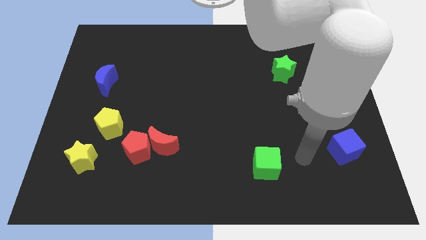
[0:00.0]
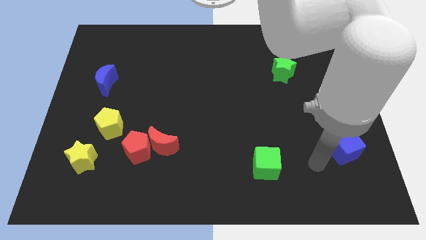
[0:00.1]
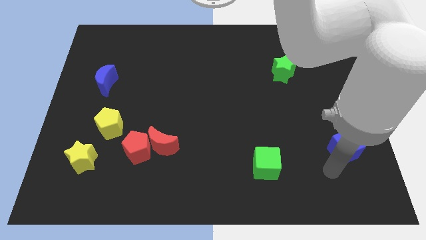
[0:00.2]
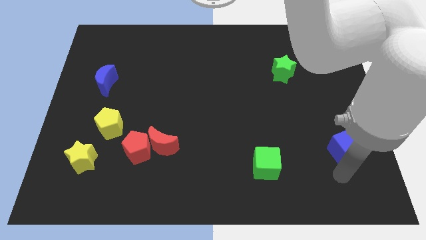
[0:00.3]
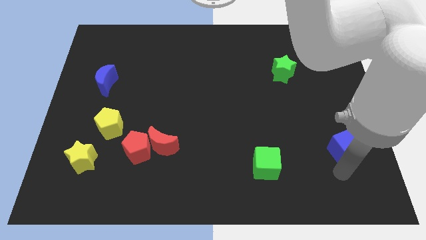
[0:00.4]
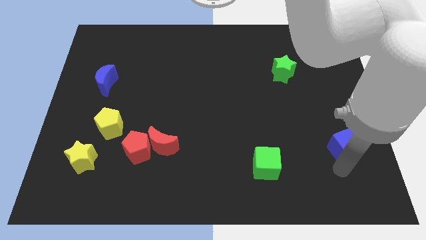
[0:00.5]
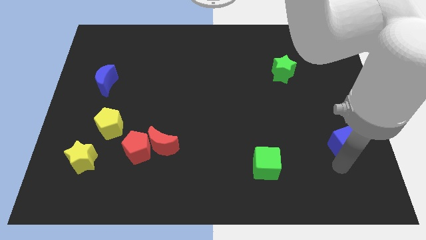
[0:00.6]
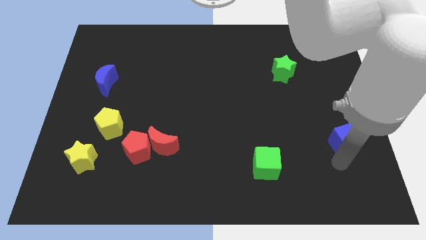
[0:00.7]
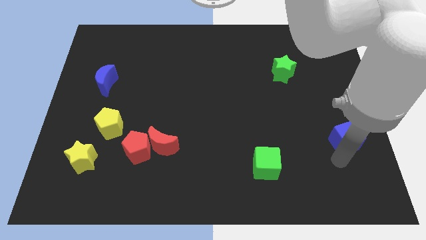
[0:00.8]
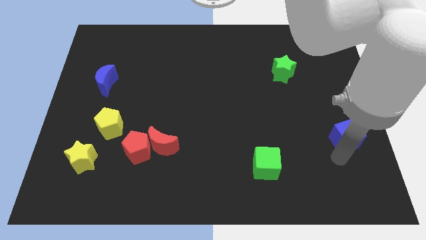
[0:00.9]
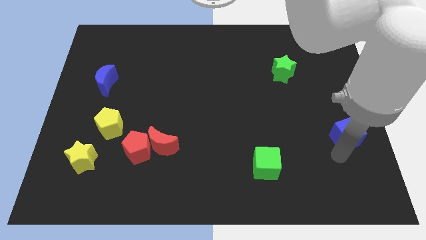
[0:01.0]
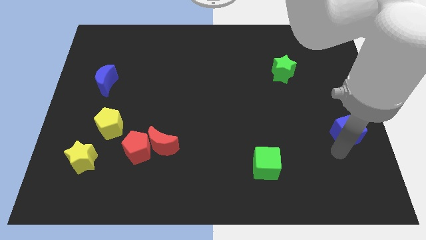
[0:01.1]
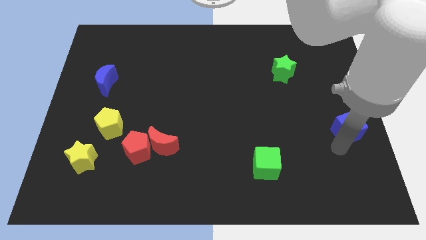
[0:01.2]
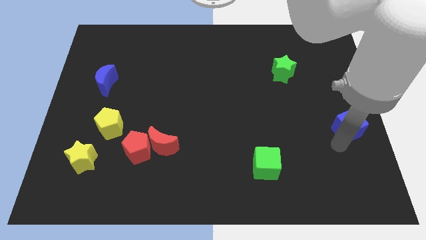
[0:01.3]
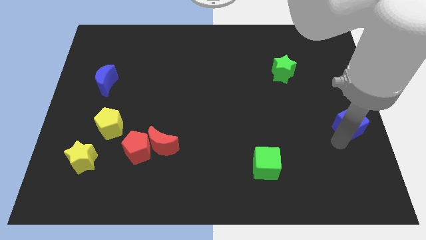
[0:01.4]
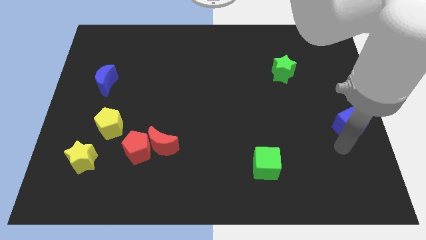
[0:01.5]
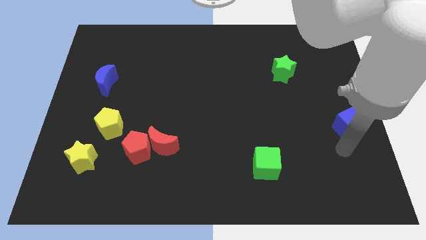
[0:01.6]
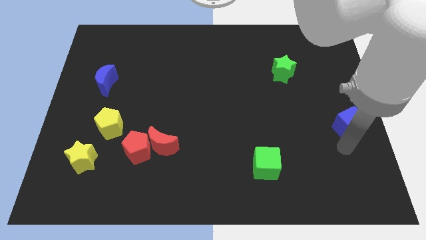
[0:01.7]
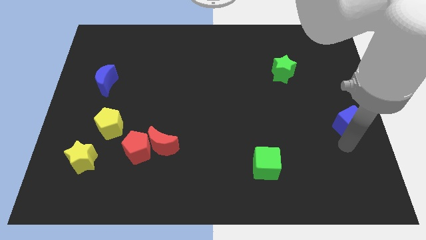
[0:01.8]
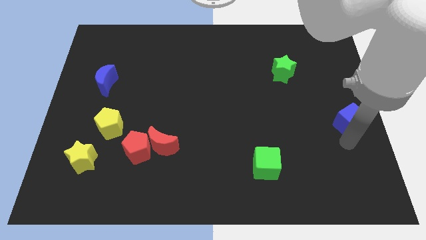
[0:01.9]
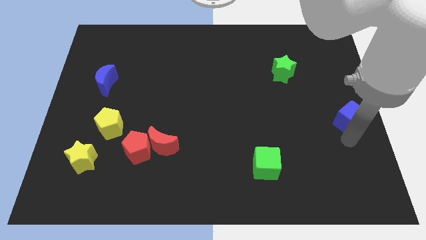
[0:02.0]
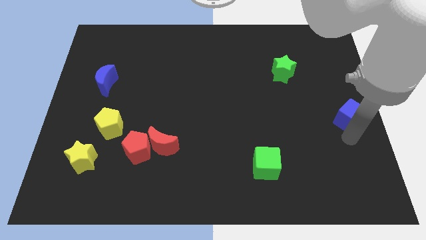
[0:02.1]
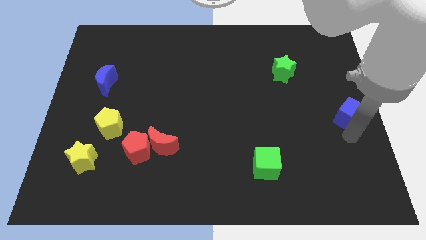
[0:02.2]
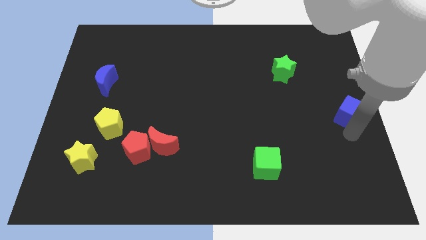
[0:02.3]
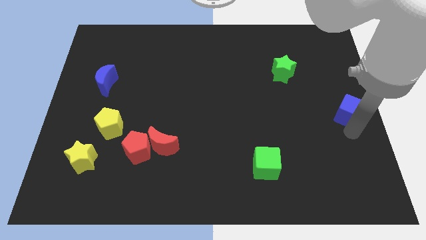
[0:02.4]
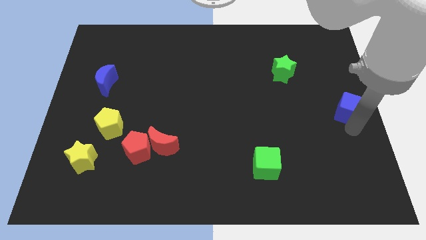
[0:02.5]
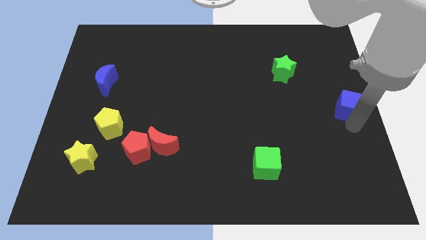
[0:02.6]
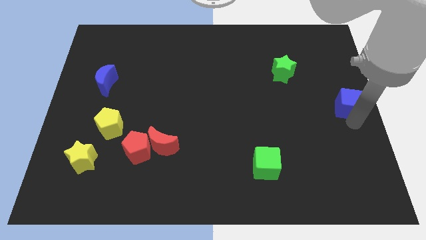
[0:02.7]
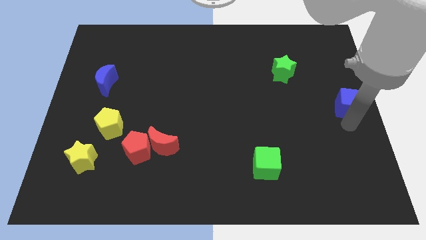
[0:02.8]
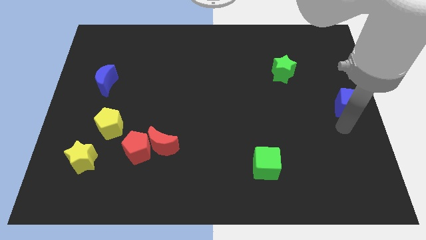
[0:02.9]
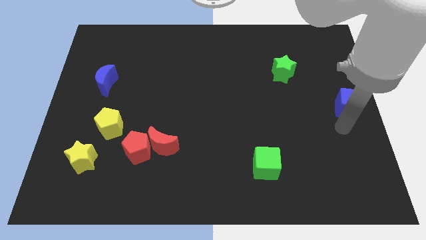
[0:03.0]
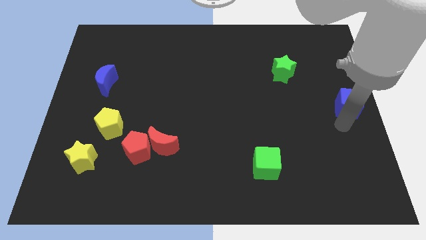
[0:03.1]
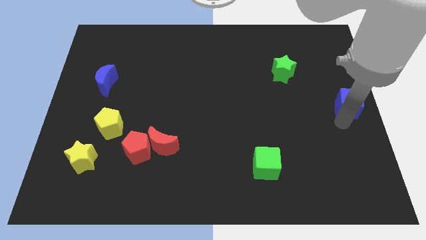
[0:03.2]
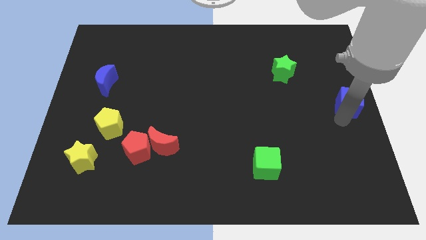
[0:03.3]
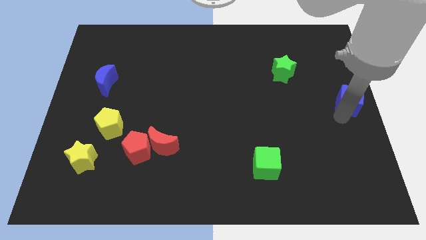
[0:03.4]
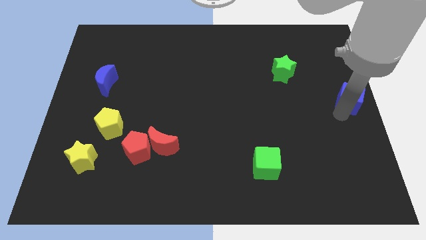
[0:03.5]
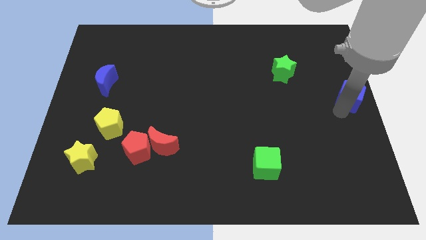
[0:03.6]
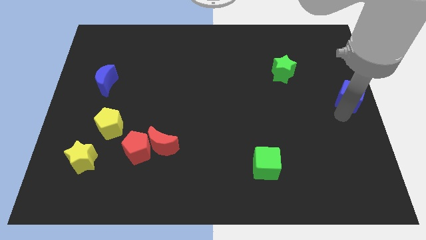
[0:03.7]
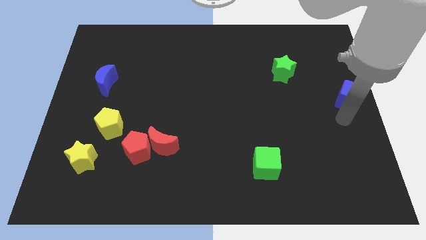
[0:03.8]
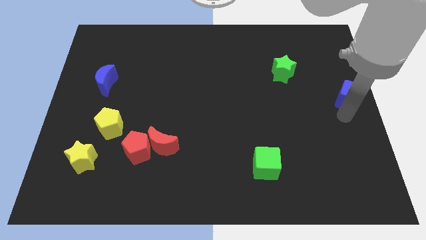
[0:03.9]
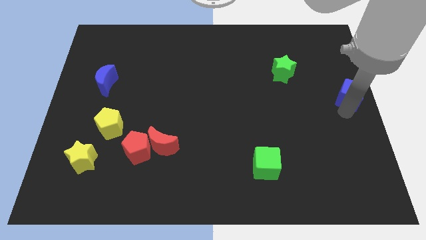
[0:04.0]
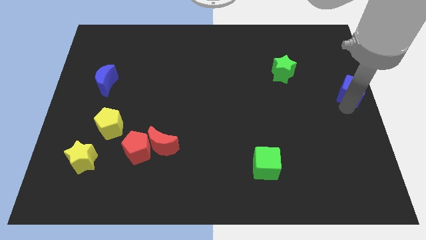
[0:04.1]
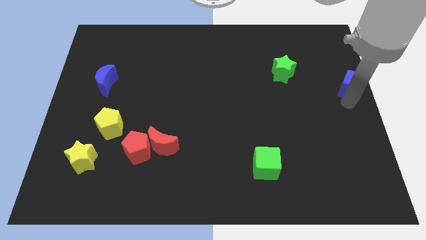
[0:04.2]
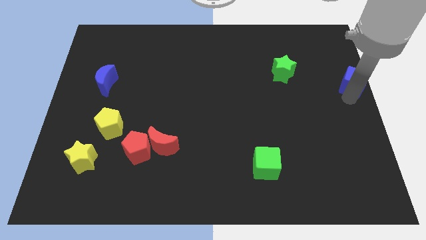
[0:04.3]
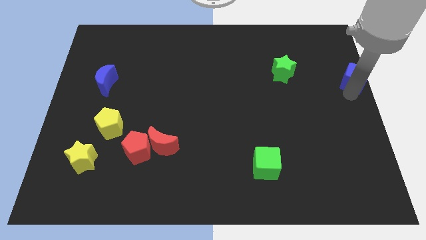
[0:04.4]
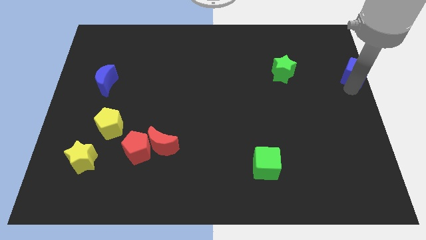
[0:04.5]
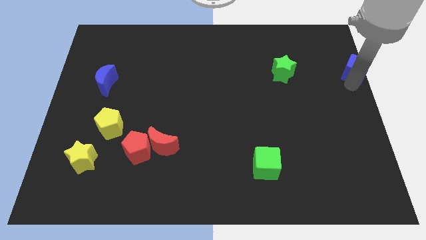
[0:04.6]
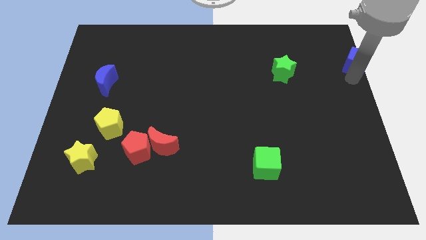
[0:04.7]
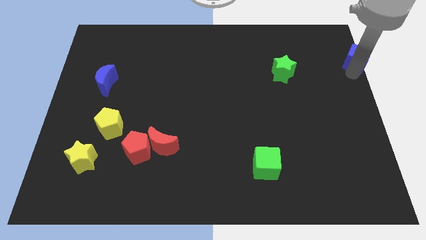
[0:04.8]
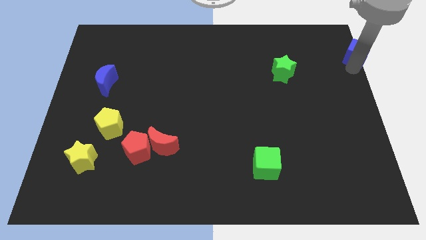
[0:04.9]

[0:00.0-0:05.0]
move the blue cube to the top right of the board

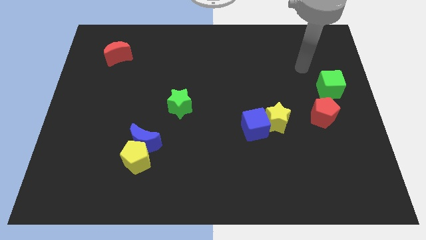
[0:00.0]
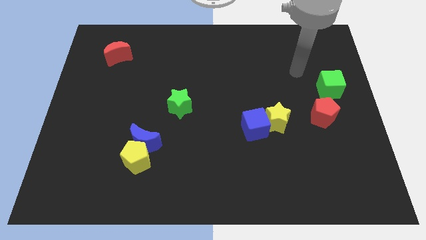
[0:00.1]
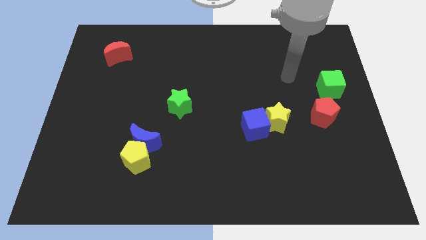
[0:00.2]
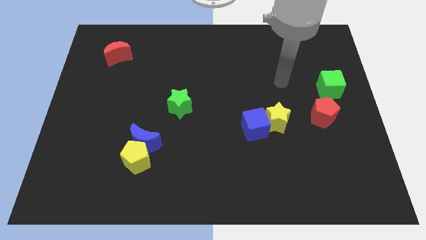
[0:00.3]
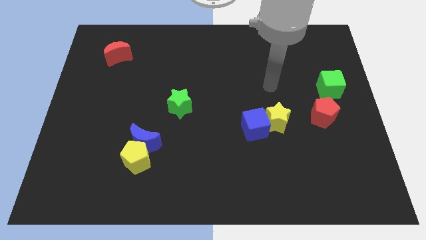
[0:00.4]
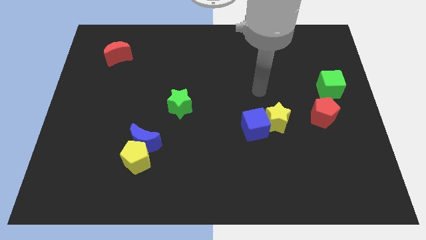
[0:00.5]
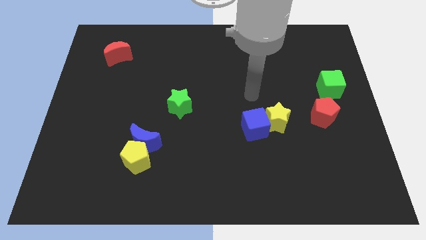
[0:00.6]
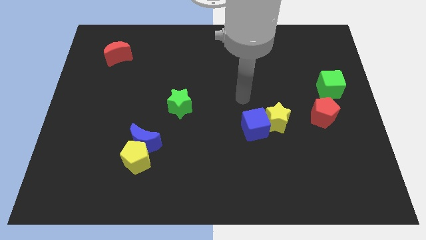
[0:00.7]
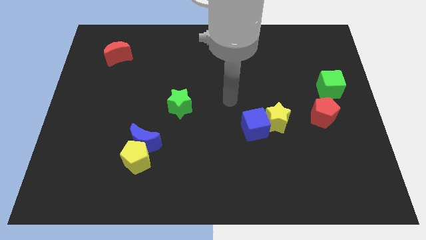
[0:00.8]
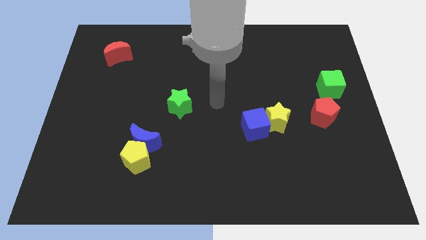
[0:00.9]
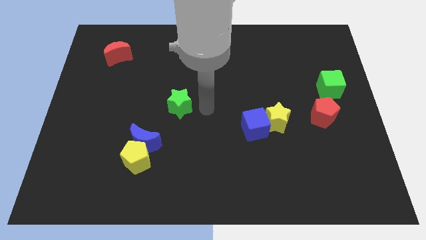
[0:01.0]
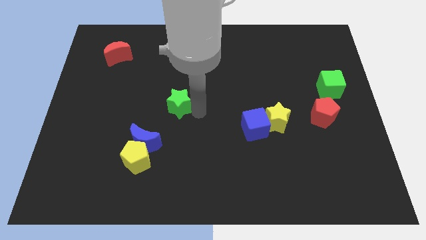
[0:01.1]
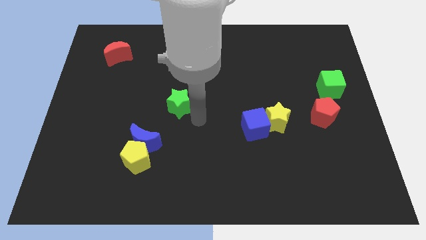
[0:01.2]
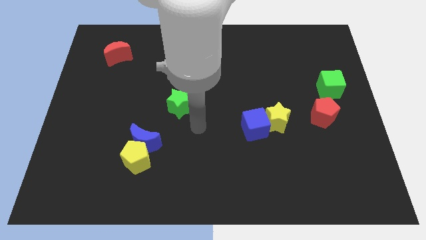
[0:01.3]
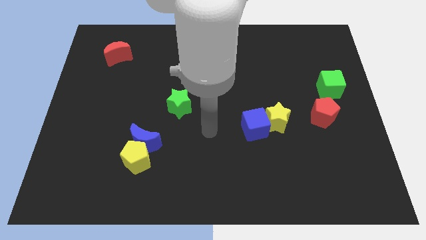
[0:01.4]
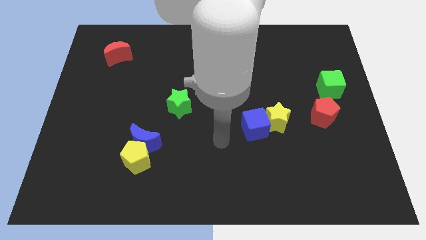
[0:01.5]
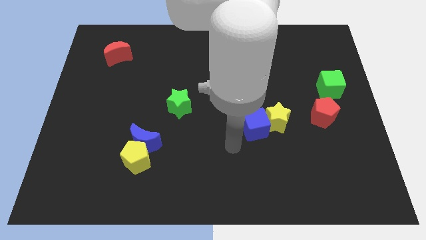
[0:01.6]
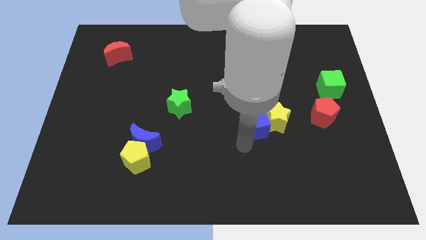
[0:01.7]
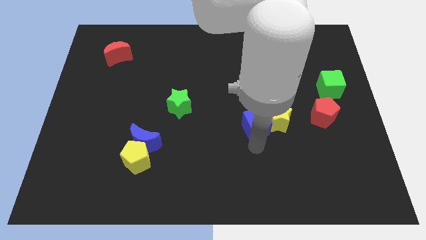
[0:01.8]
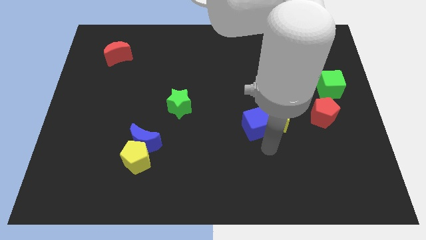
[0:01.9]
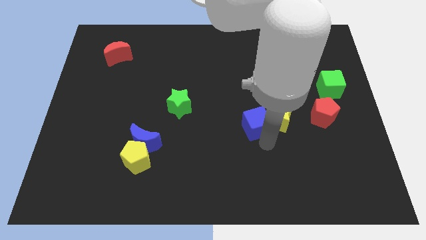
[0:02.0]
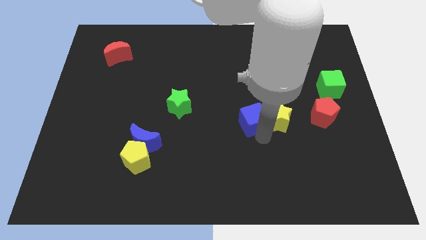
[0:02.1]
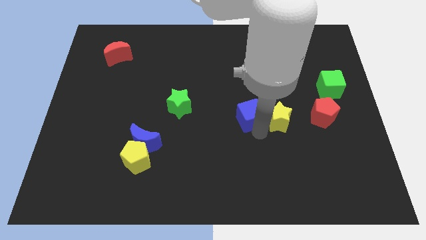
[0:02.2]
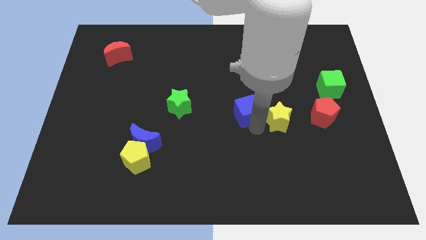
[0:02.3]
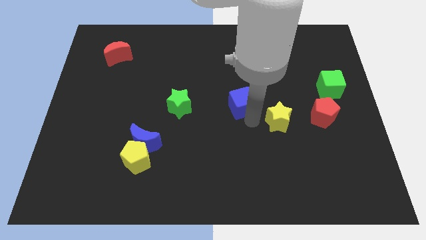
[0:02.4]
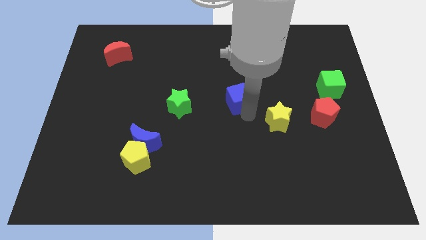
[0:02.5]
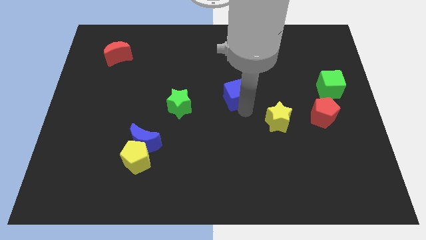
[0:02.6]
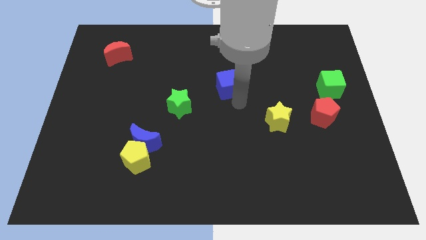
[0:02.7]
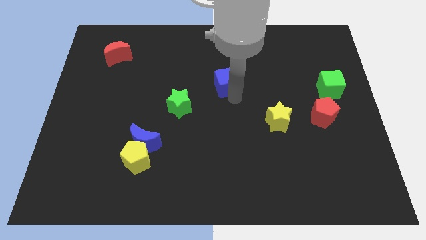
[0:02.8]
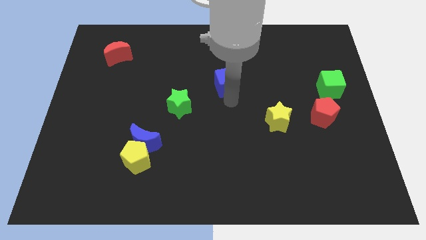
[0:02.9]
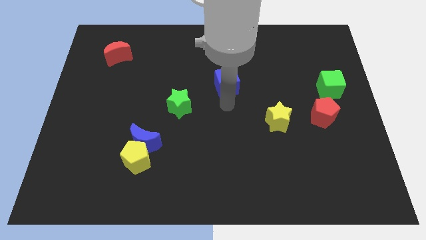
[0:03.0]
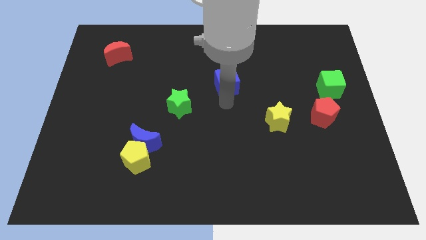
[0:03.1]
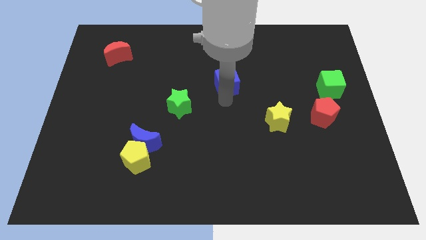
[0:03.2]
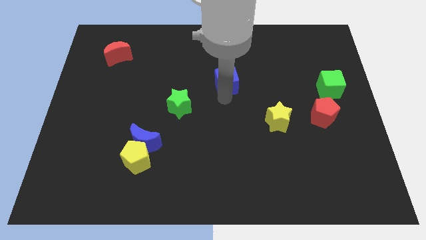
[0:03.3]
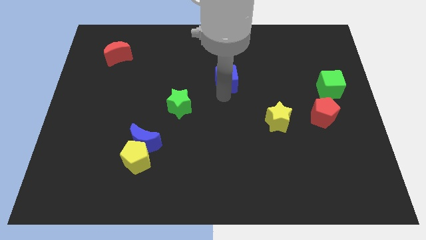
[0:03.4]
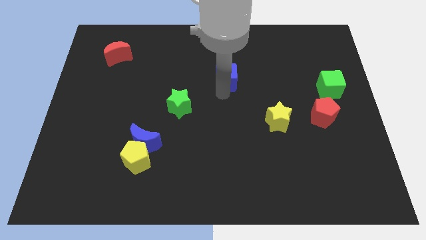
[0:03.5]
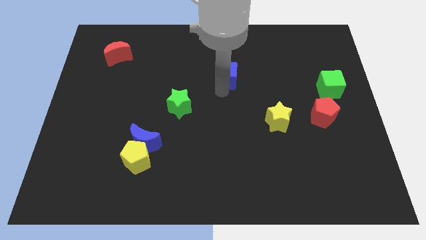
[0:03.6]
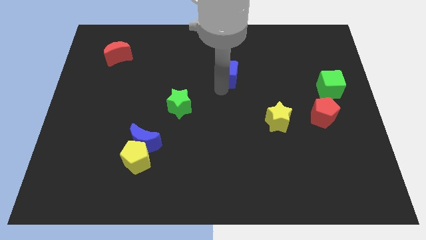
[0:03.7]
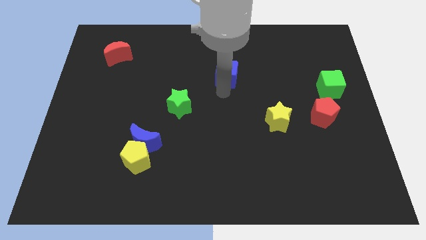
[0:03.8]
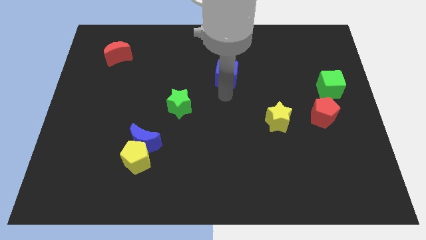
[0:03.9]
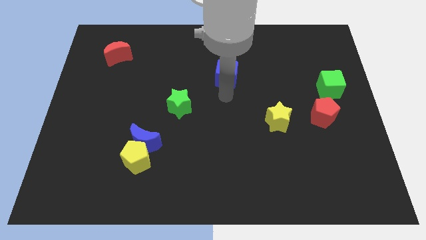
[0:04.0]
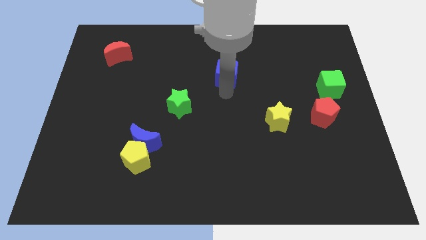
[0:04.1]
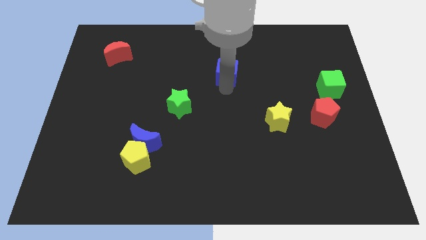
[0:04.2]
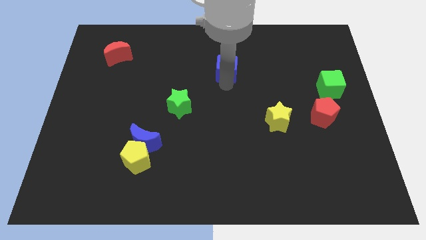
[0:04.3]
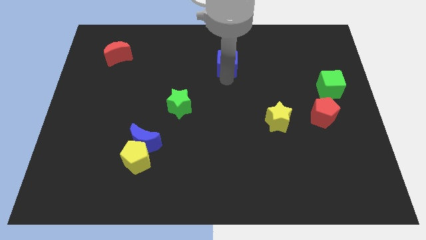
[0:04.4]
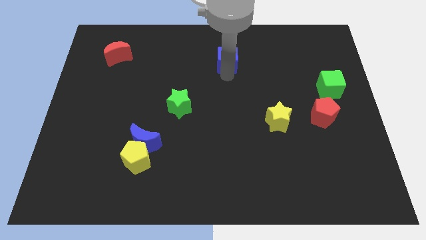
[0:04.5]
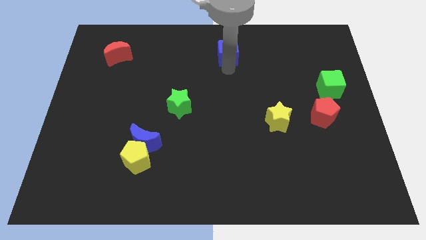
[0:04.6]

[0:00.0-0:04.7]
move the blue cube to the top side
